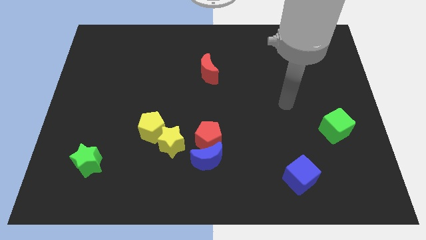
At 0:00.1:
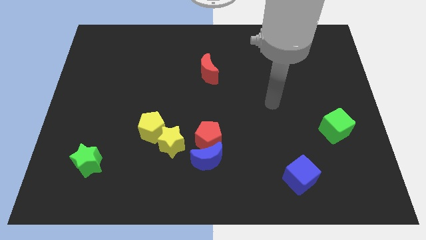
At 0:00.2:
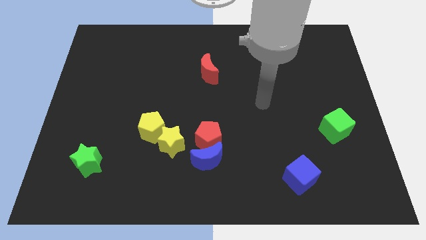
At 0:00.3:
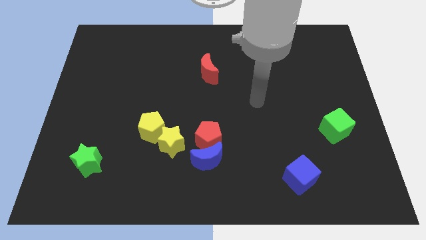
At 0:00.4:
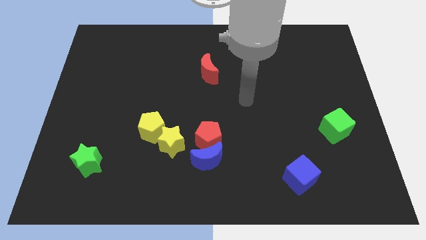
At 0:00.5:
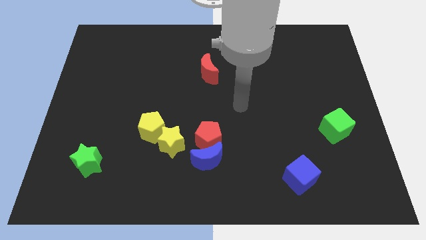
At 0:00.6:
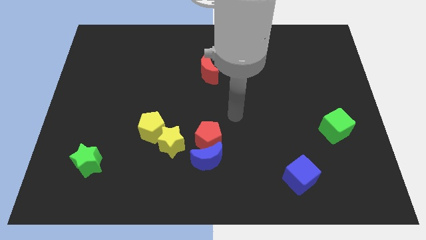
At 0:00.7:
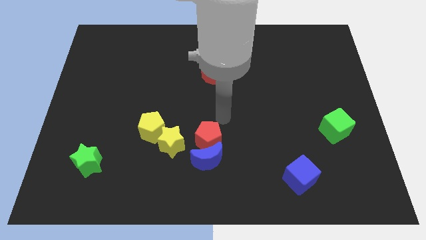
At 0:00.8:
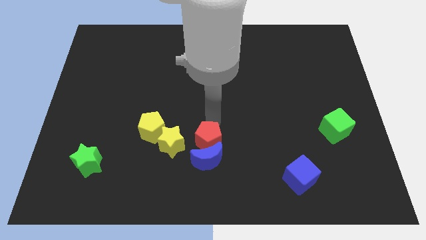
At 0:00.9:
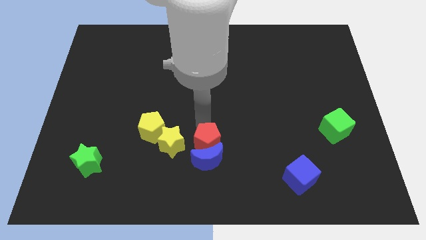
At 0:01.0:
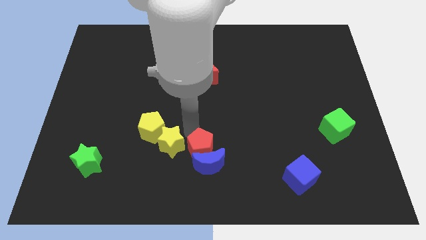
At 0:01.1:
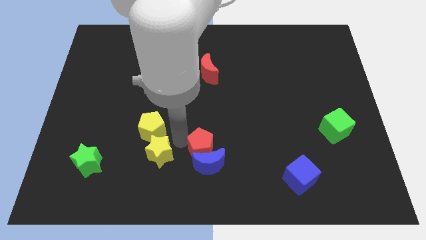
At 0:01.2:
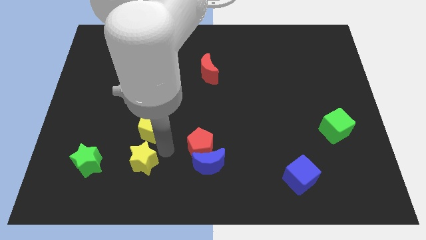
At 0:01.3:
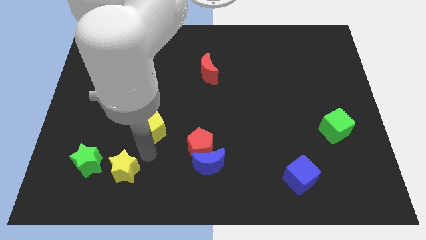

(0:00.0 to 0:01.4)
pull the yellow pentagon apart from the yellow star

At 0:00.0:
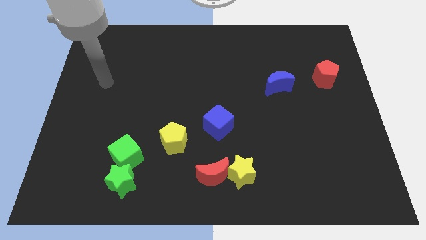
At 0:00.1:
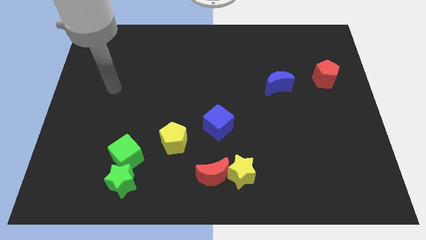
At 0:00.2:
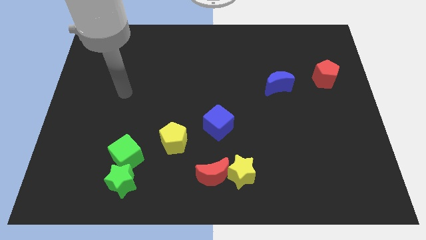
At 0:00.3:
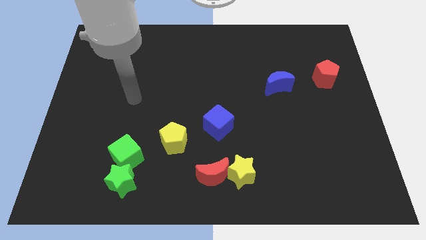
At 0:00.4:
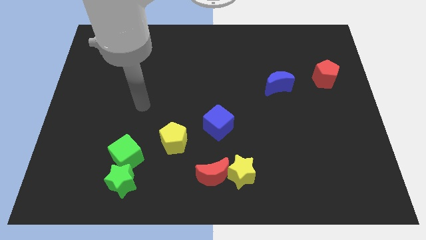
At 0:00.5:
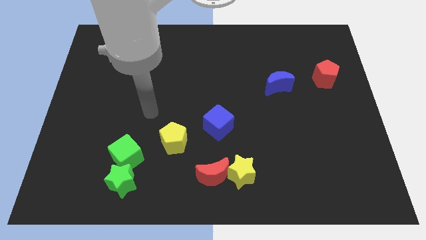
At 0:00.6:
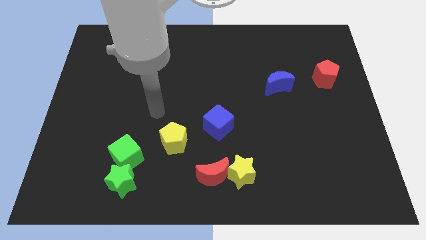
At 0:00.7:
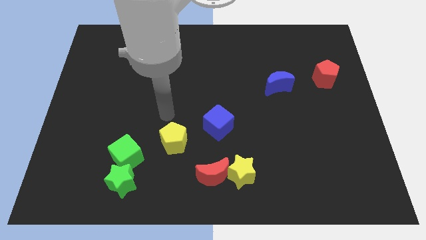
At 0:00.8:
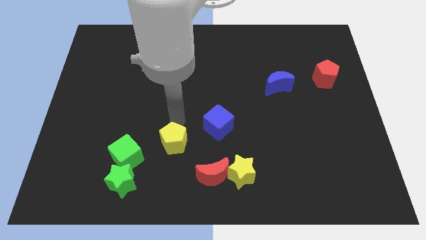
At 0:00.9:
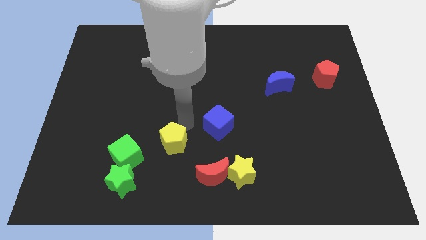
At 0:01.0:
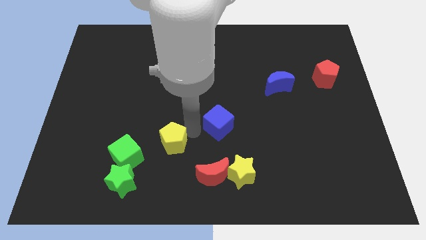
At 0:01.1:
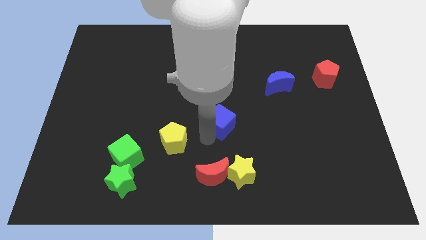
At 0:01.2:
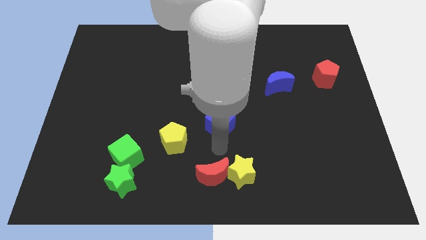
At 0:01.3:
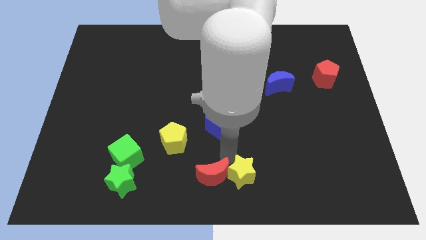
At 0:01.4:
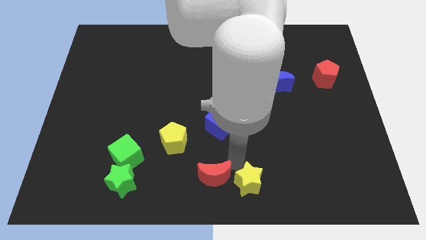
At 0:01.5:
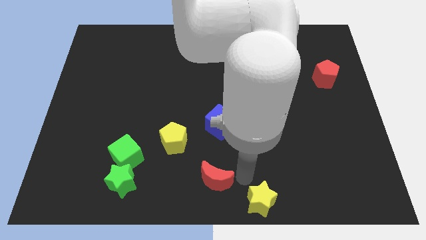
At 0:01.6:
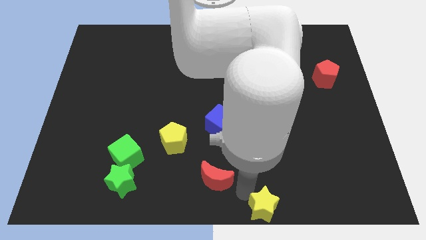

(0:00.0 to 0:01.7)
pull the red moon apart from the yellow star

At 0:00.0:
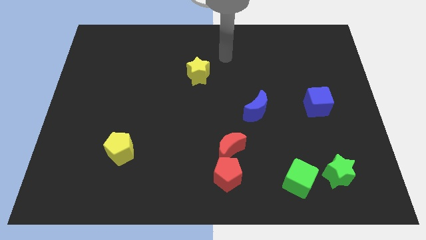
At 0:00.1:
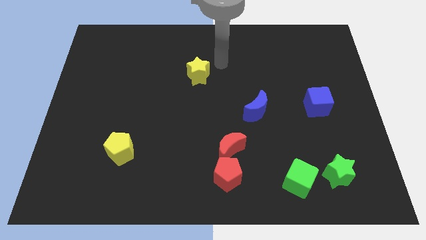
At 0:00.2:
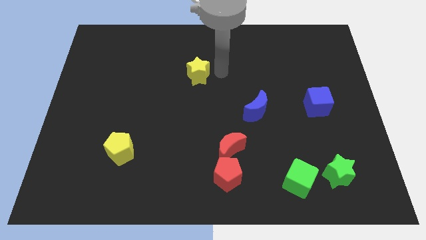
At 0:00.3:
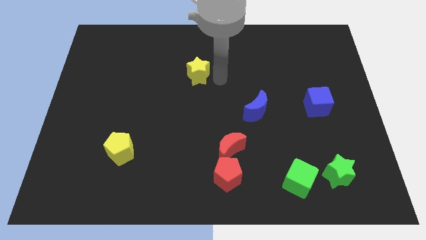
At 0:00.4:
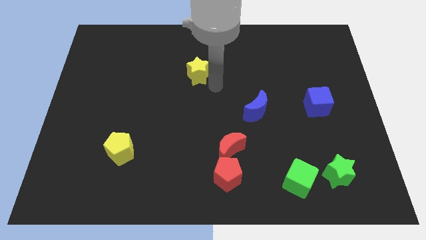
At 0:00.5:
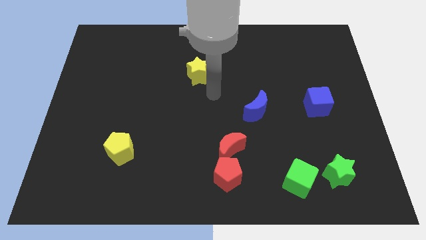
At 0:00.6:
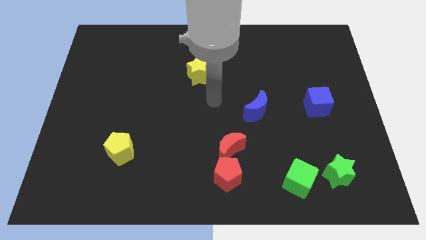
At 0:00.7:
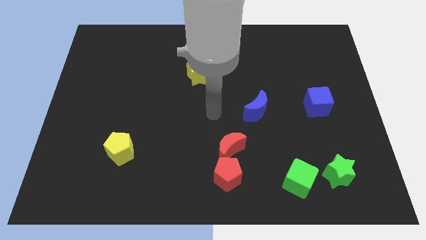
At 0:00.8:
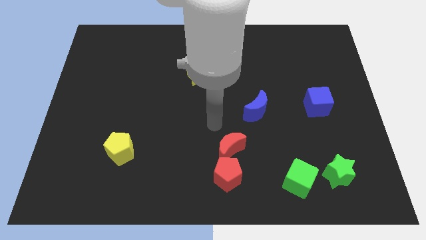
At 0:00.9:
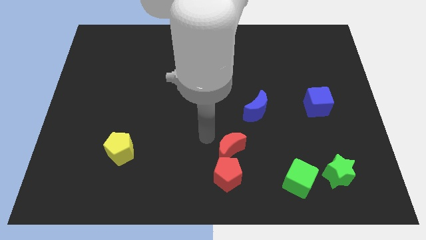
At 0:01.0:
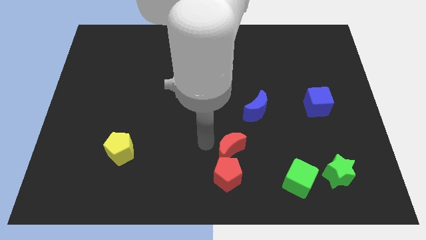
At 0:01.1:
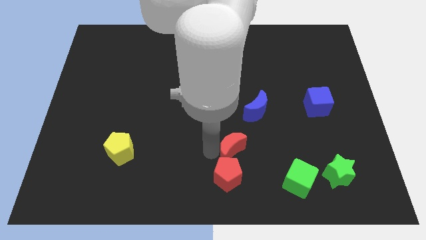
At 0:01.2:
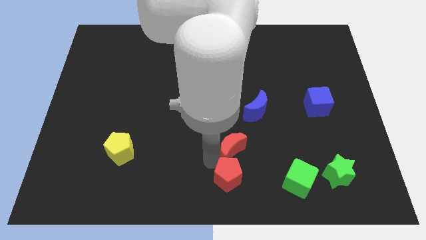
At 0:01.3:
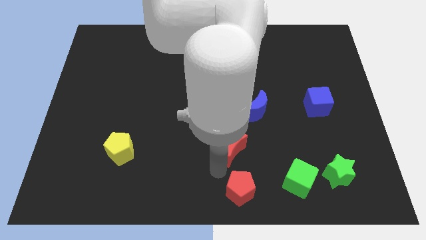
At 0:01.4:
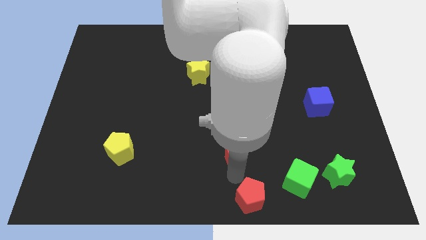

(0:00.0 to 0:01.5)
separate the red moon from the red pentagon

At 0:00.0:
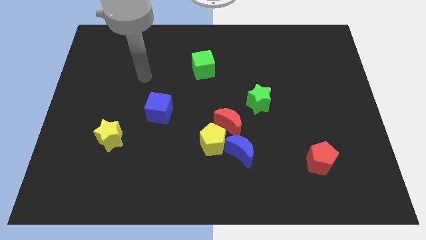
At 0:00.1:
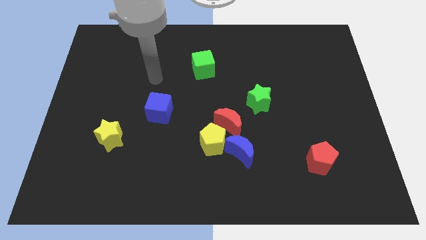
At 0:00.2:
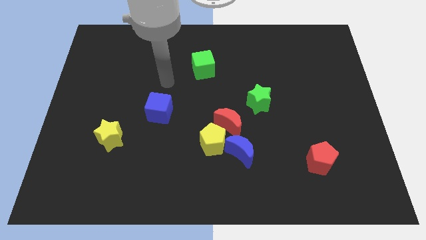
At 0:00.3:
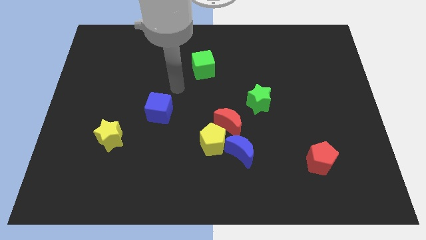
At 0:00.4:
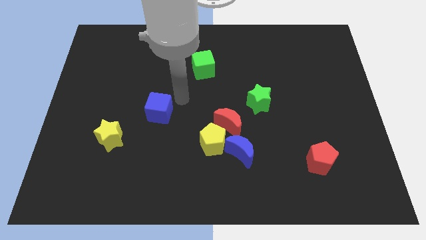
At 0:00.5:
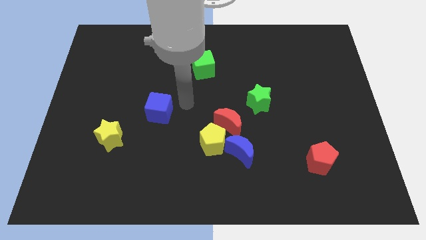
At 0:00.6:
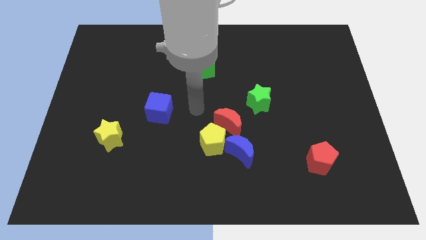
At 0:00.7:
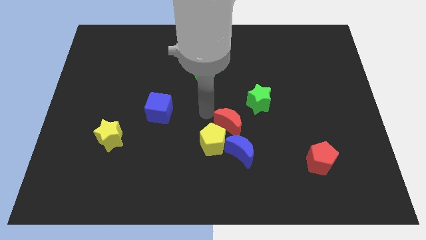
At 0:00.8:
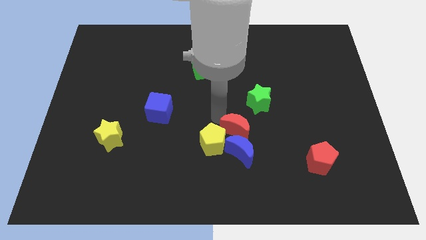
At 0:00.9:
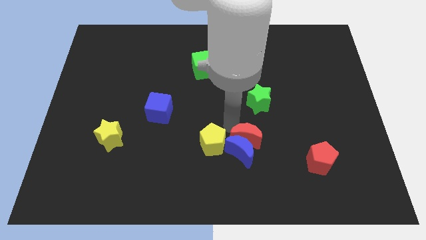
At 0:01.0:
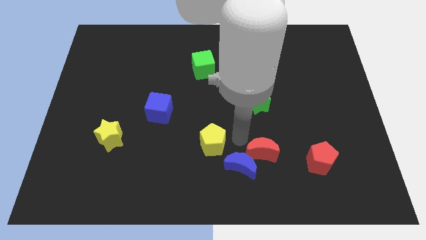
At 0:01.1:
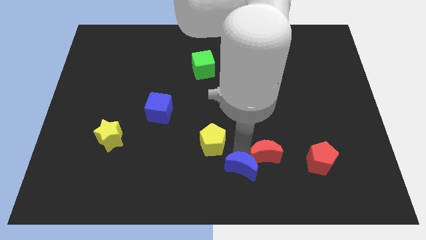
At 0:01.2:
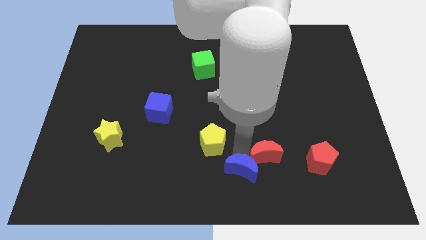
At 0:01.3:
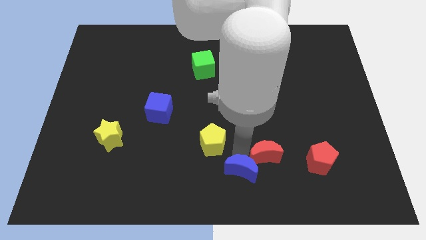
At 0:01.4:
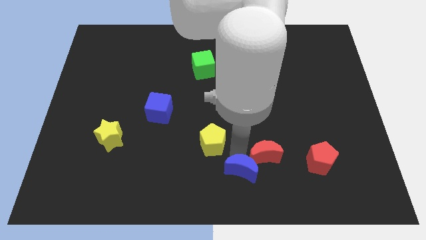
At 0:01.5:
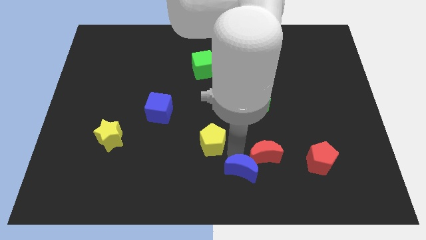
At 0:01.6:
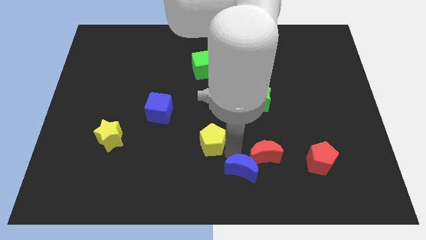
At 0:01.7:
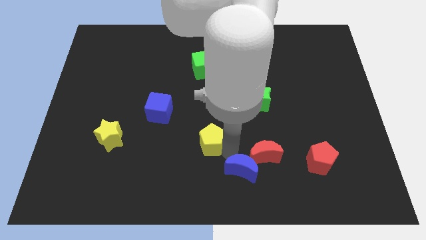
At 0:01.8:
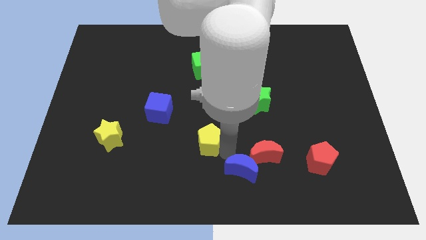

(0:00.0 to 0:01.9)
move the yellow pentagon away from the red moon and blue moon

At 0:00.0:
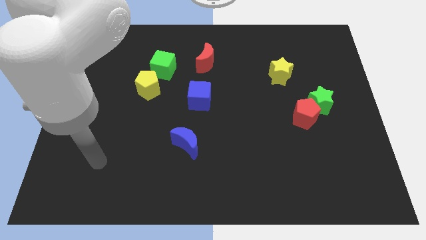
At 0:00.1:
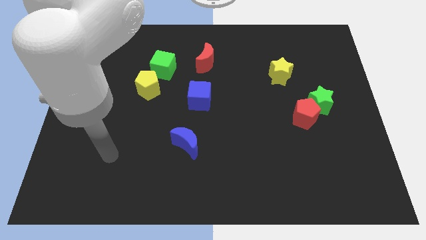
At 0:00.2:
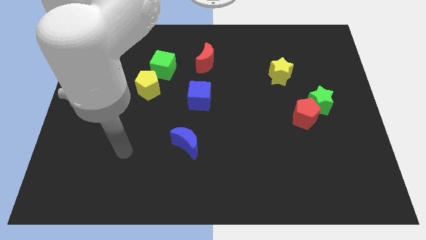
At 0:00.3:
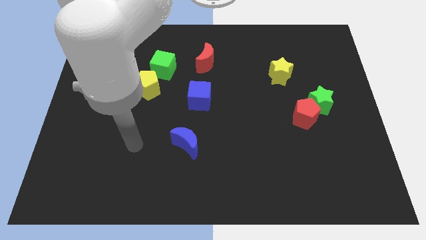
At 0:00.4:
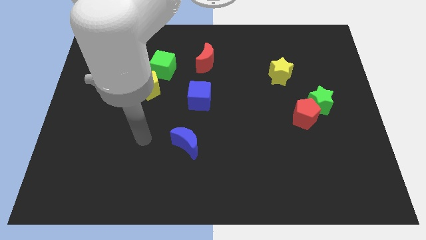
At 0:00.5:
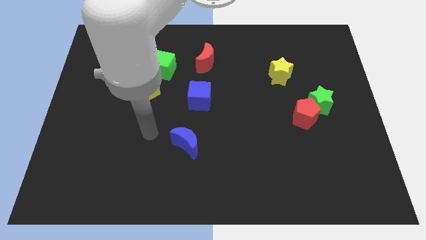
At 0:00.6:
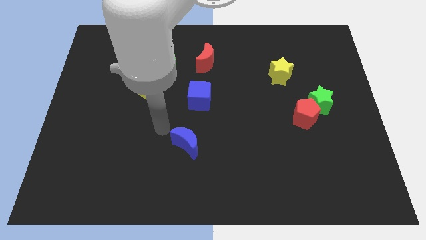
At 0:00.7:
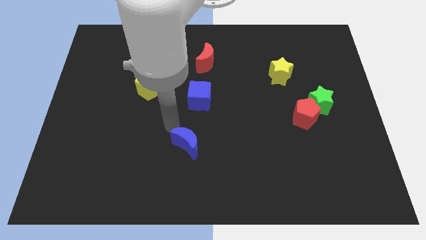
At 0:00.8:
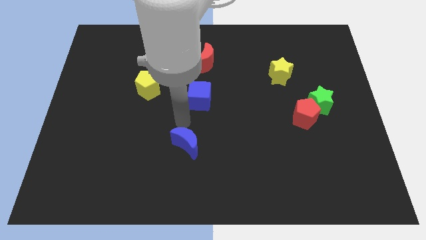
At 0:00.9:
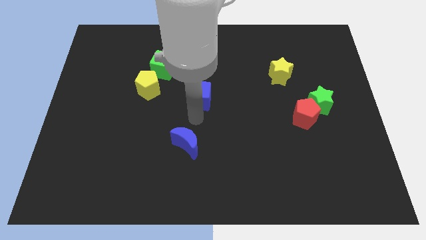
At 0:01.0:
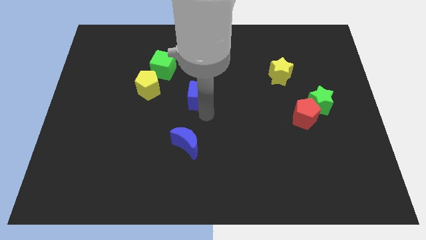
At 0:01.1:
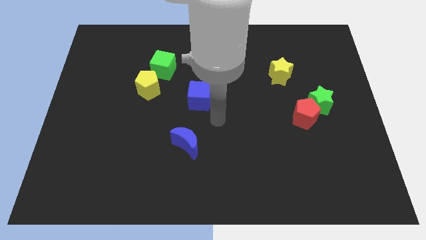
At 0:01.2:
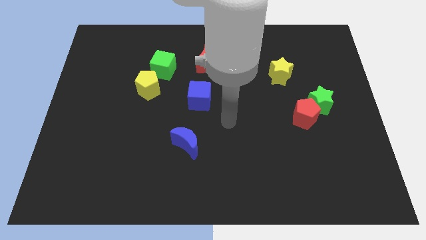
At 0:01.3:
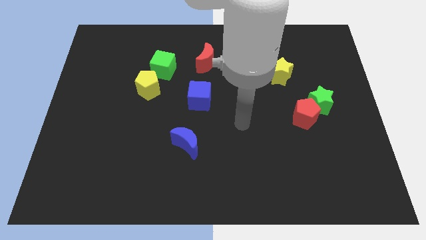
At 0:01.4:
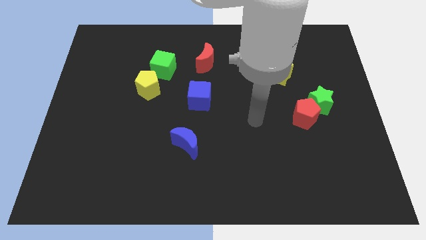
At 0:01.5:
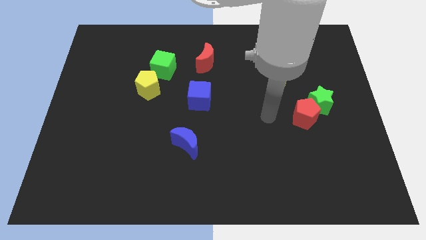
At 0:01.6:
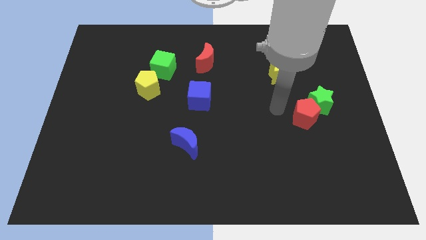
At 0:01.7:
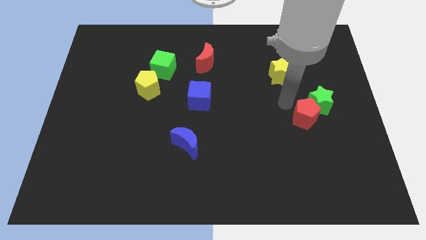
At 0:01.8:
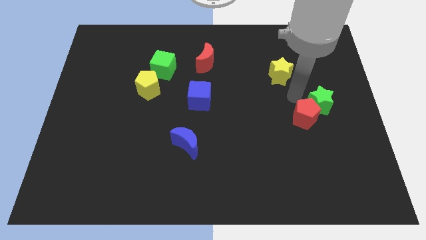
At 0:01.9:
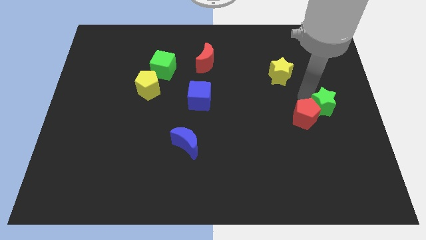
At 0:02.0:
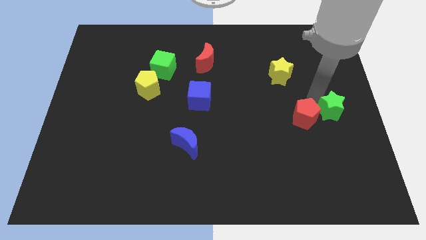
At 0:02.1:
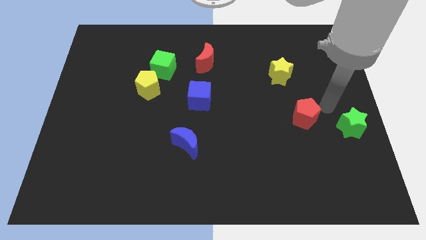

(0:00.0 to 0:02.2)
separate the red pentagon from the green star

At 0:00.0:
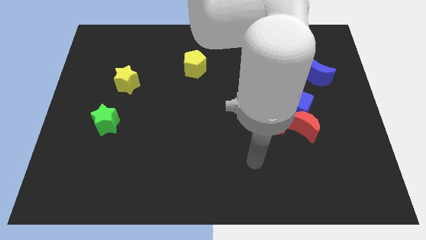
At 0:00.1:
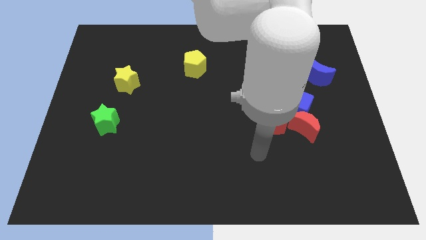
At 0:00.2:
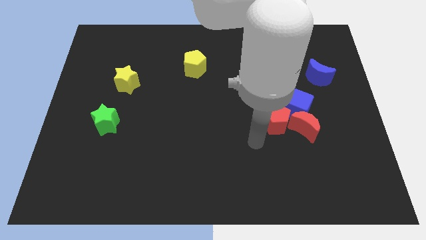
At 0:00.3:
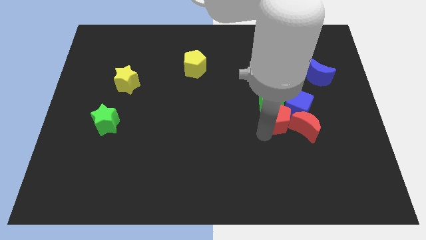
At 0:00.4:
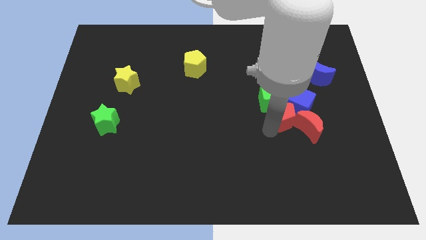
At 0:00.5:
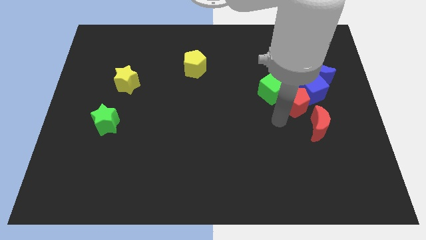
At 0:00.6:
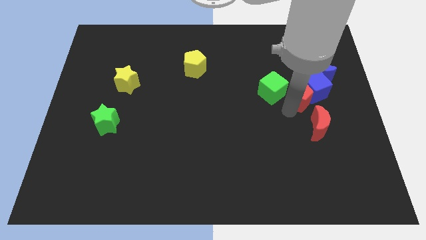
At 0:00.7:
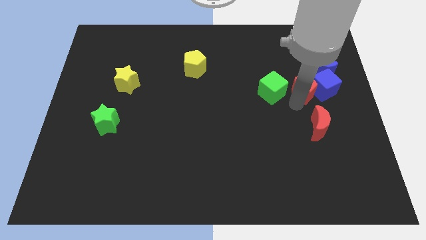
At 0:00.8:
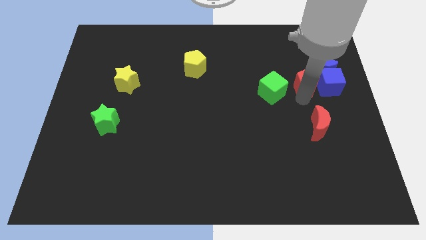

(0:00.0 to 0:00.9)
pull the blue cube apart from the group
